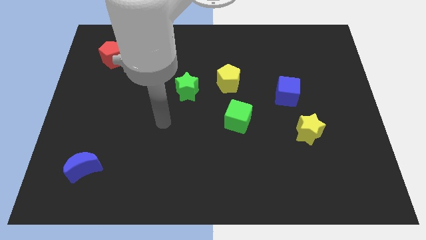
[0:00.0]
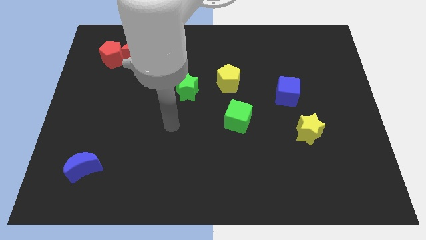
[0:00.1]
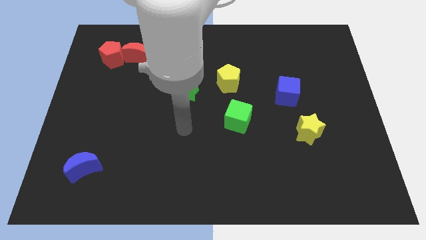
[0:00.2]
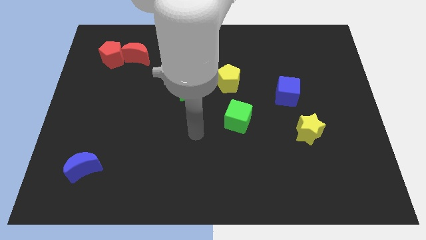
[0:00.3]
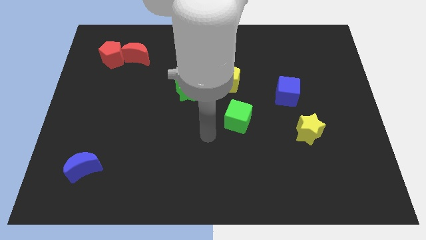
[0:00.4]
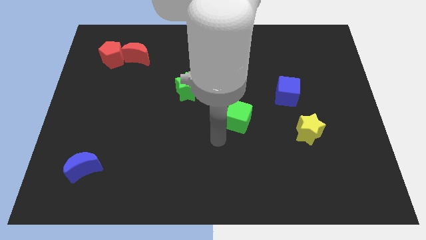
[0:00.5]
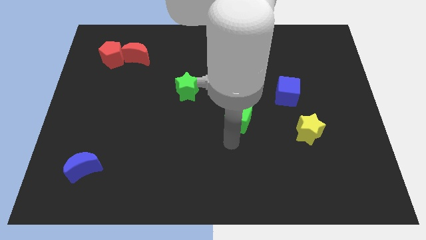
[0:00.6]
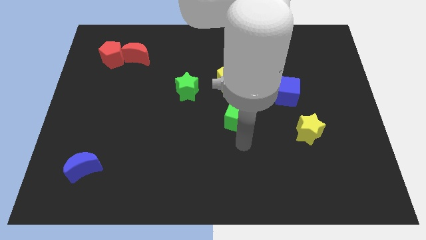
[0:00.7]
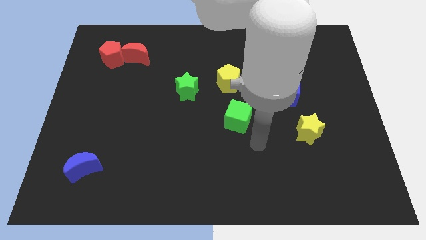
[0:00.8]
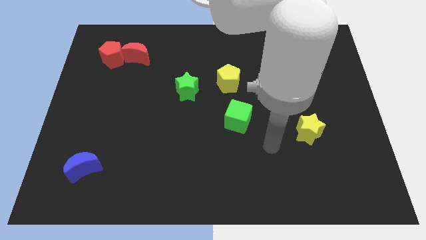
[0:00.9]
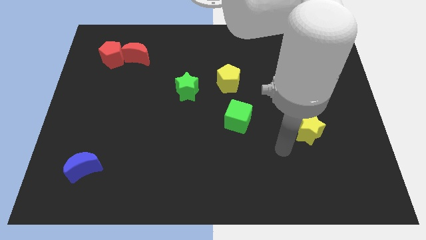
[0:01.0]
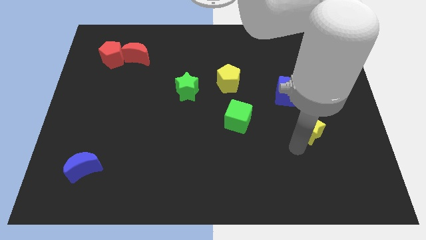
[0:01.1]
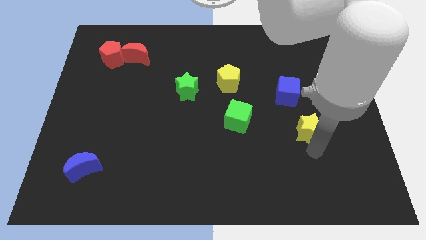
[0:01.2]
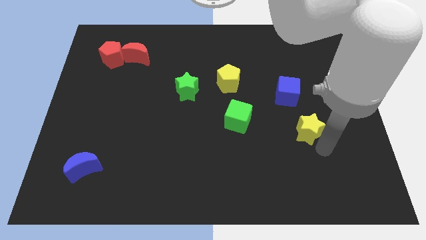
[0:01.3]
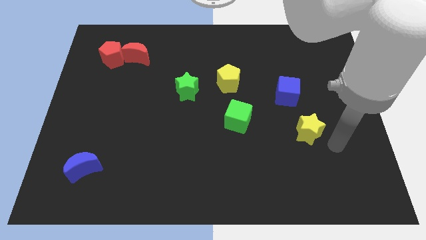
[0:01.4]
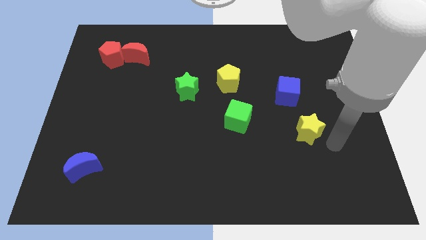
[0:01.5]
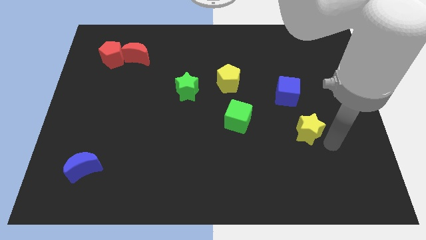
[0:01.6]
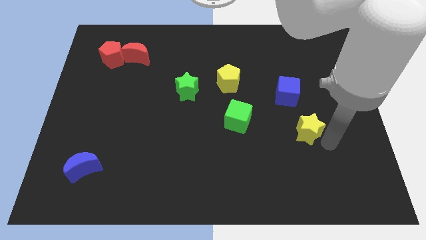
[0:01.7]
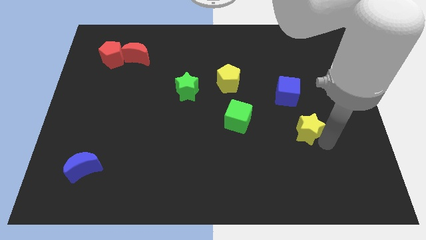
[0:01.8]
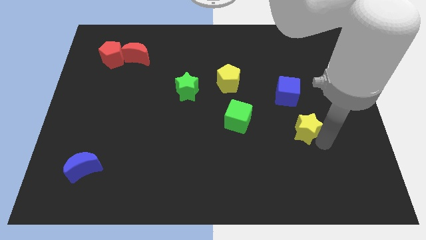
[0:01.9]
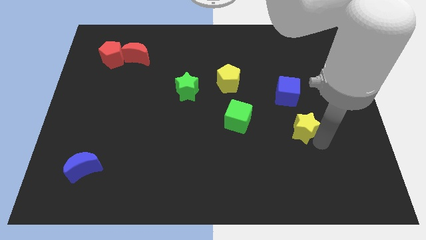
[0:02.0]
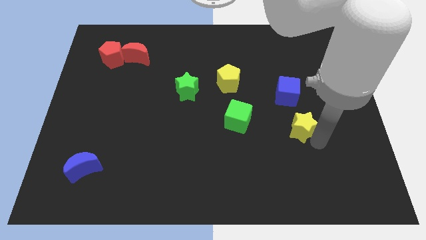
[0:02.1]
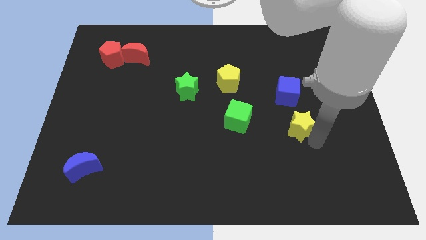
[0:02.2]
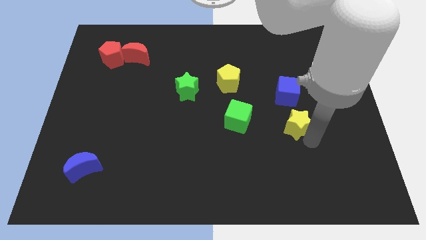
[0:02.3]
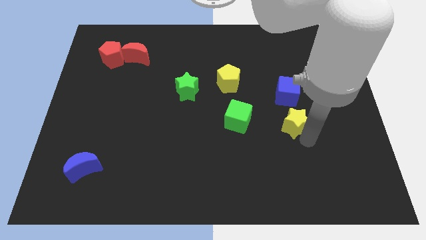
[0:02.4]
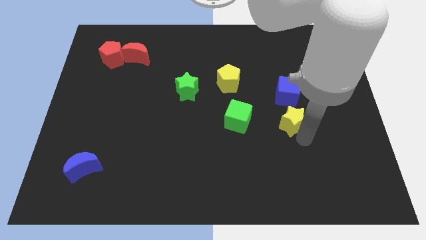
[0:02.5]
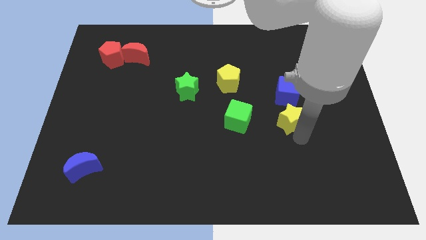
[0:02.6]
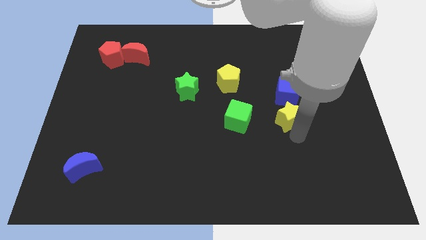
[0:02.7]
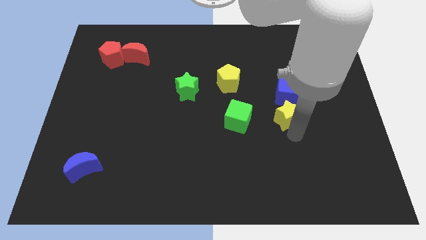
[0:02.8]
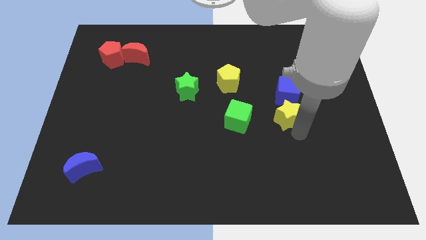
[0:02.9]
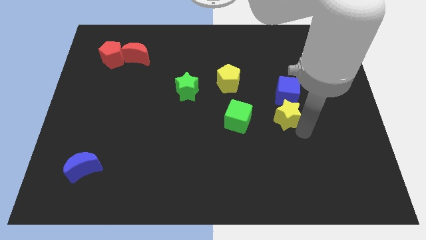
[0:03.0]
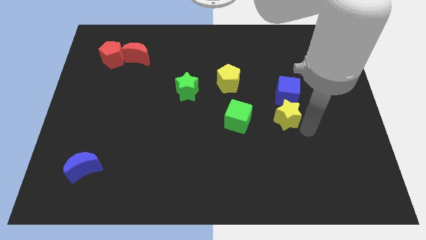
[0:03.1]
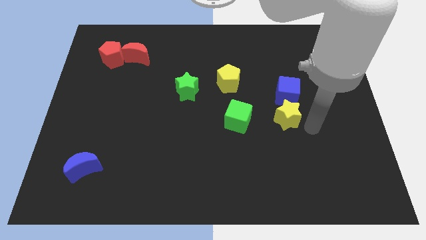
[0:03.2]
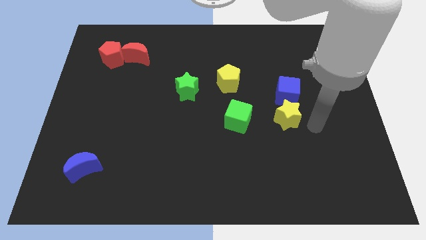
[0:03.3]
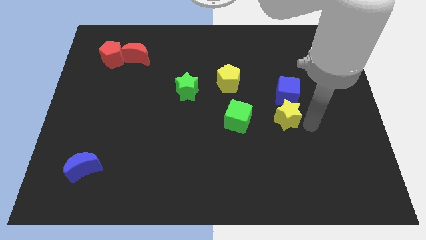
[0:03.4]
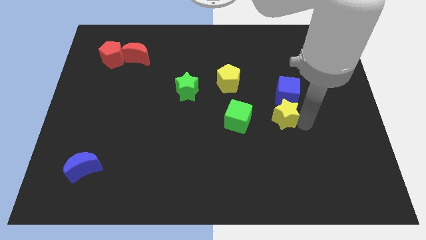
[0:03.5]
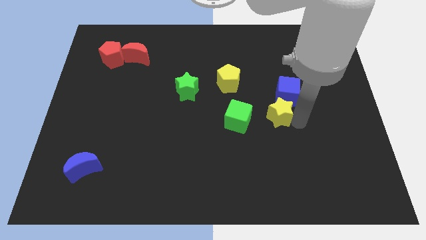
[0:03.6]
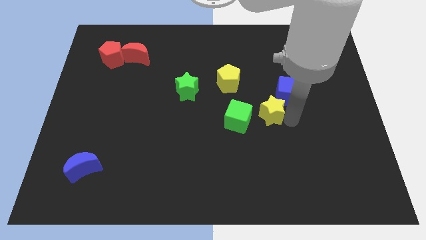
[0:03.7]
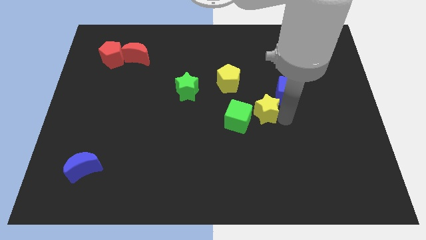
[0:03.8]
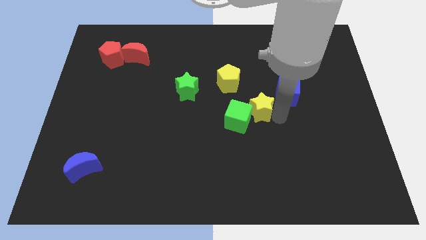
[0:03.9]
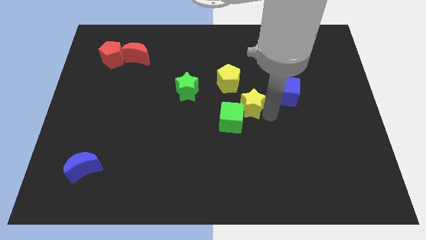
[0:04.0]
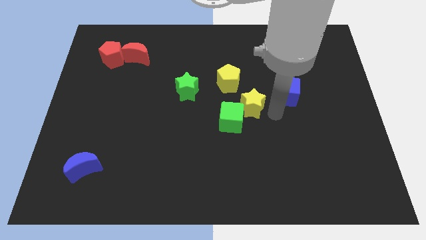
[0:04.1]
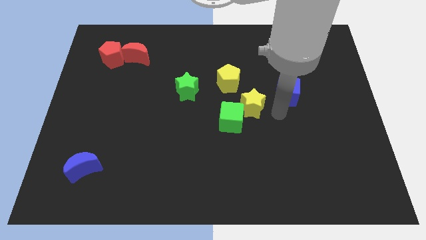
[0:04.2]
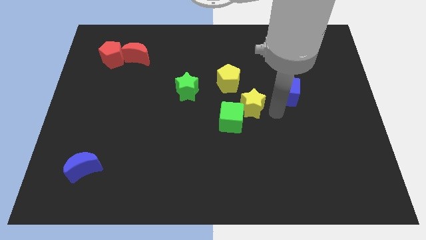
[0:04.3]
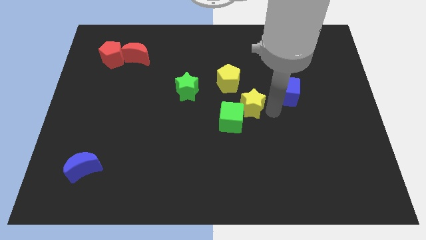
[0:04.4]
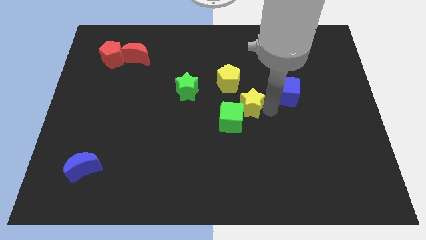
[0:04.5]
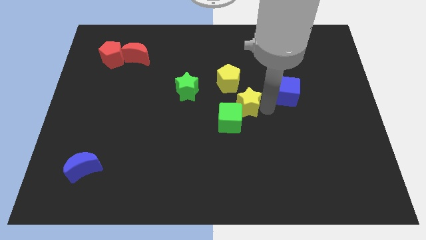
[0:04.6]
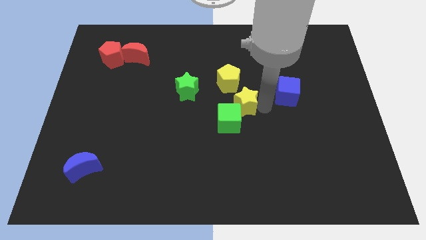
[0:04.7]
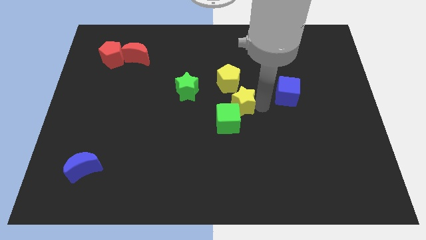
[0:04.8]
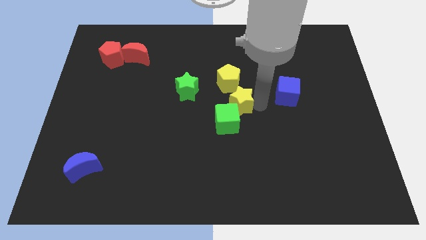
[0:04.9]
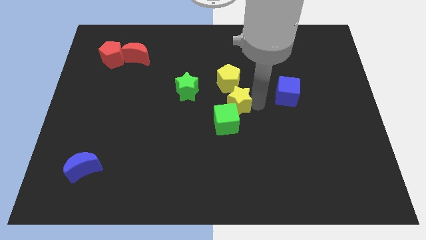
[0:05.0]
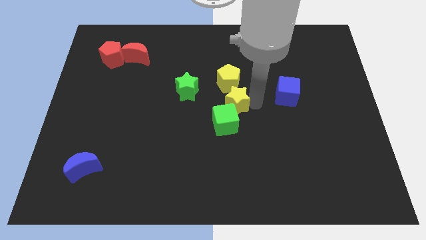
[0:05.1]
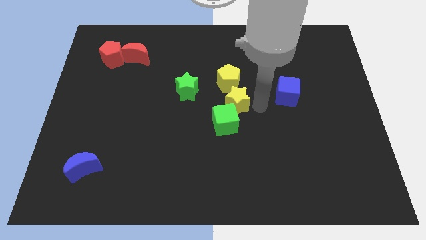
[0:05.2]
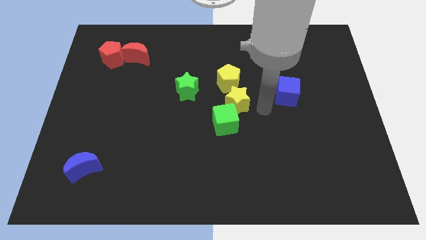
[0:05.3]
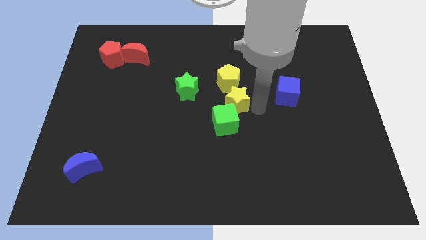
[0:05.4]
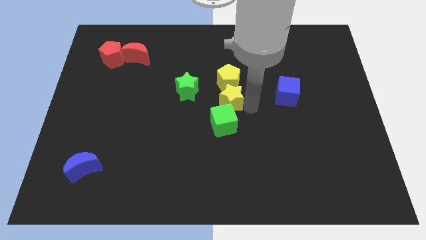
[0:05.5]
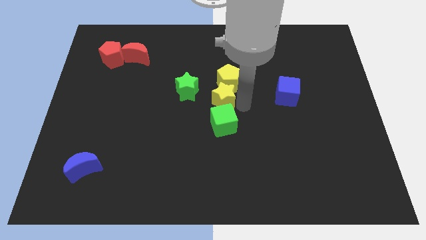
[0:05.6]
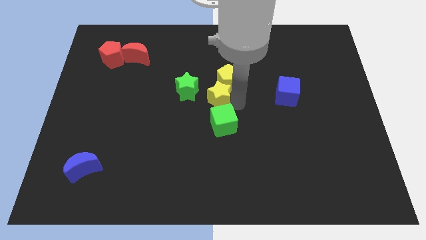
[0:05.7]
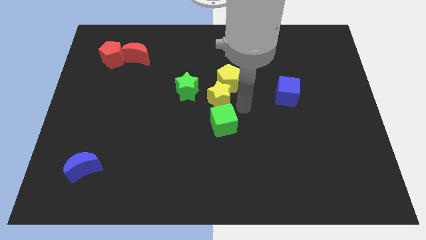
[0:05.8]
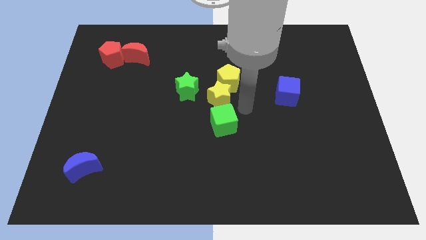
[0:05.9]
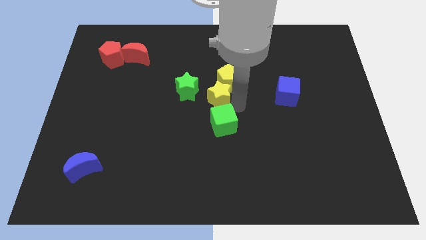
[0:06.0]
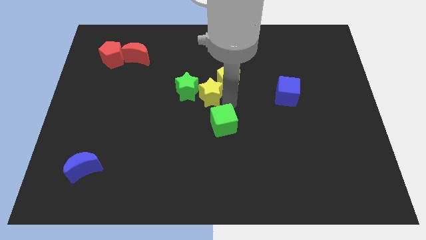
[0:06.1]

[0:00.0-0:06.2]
move the yellow star towards the green star

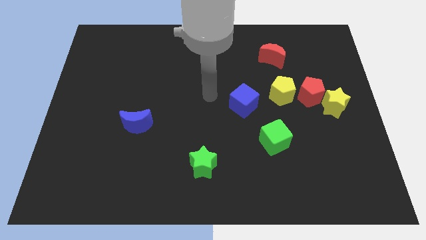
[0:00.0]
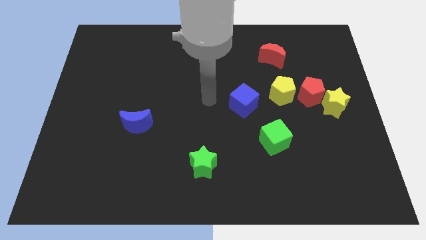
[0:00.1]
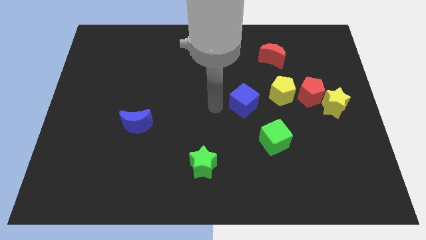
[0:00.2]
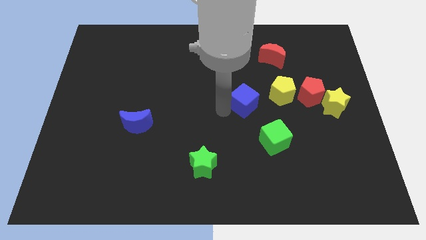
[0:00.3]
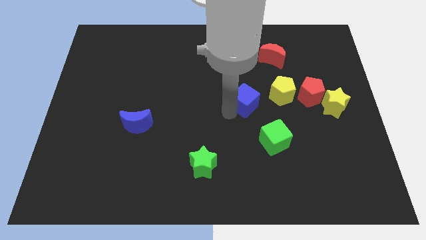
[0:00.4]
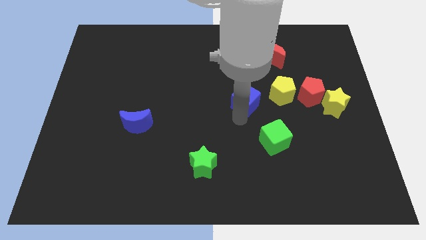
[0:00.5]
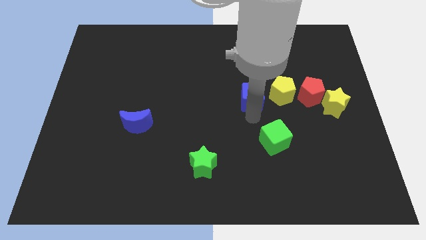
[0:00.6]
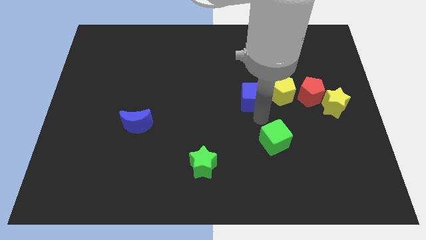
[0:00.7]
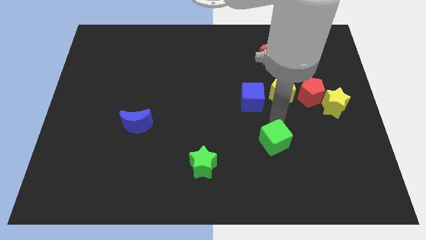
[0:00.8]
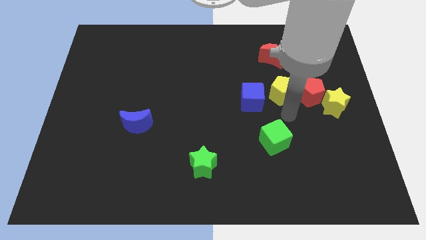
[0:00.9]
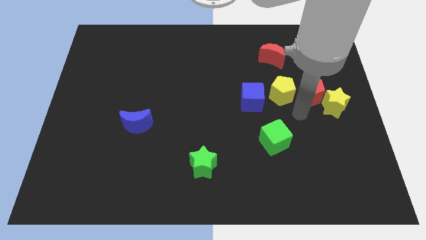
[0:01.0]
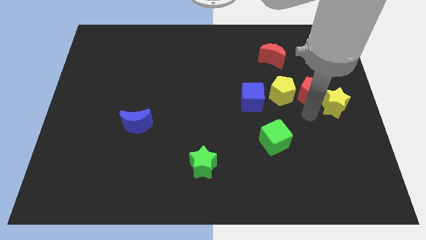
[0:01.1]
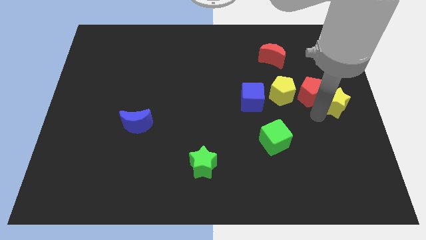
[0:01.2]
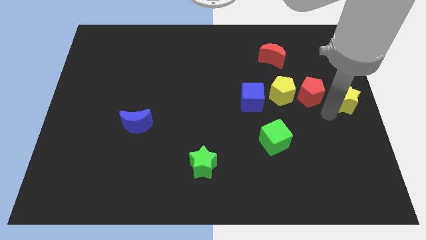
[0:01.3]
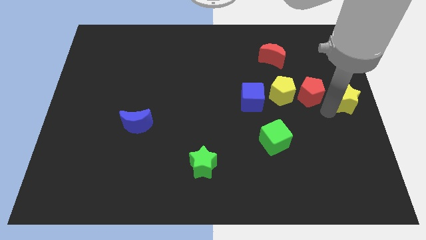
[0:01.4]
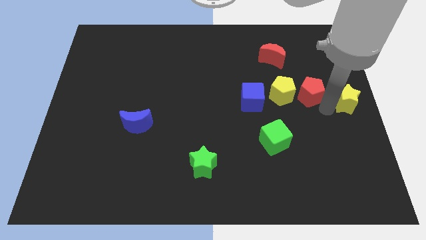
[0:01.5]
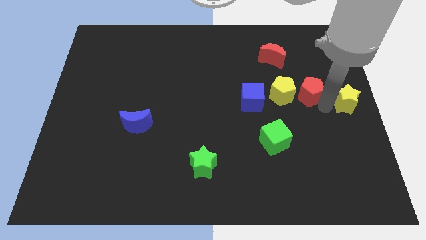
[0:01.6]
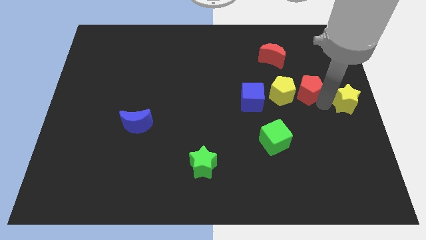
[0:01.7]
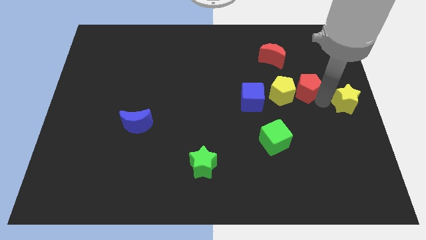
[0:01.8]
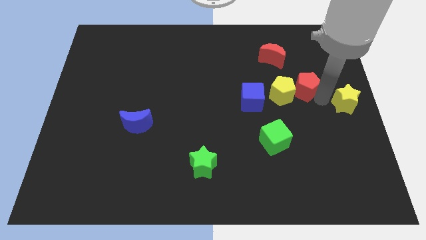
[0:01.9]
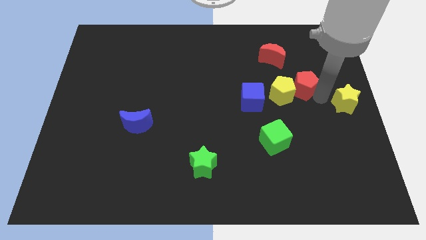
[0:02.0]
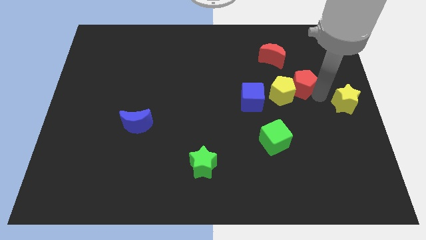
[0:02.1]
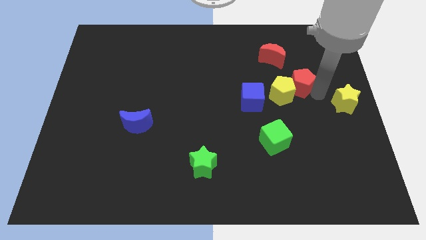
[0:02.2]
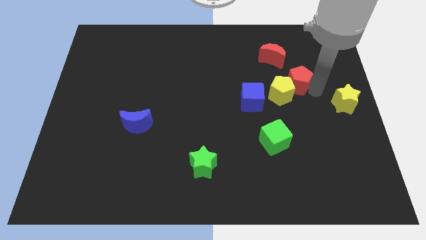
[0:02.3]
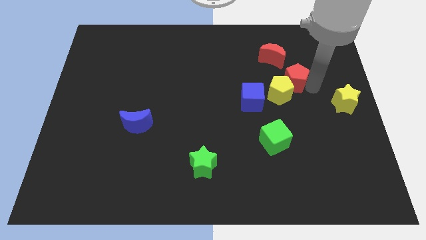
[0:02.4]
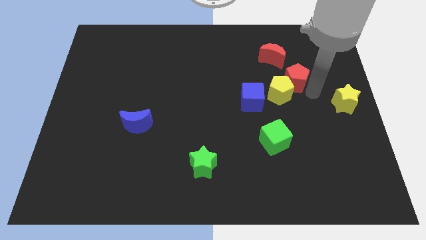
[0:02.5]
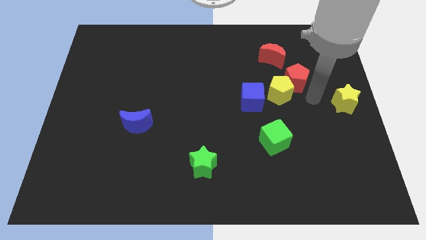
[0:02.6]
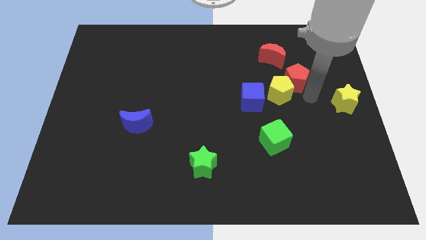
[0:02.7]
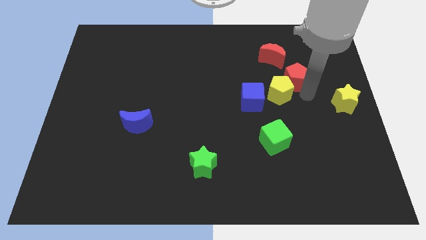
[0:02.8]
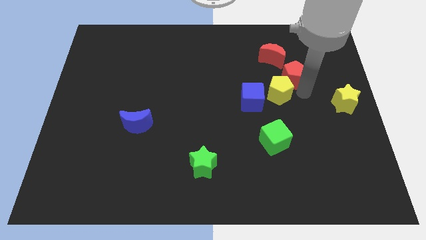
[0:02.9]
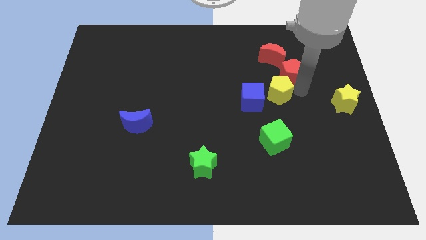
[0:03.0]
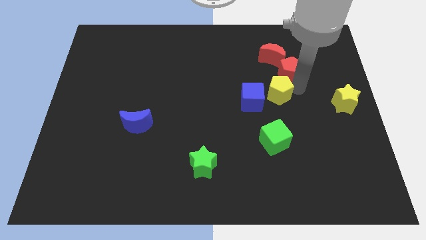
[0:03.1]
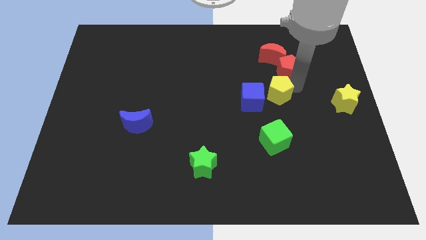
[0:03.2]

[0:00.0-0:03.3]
put the red pentagon towards the red moon
